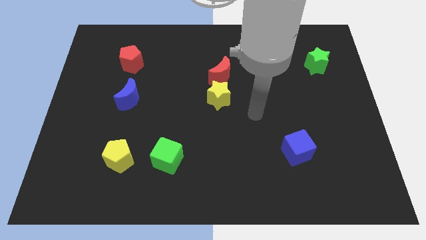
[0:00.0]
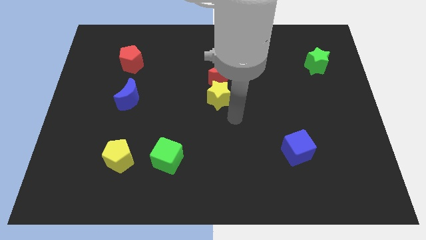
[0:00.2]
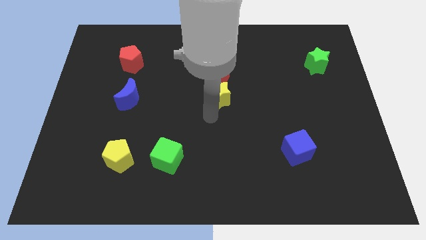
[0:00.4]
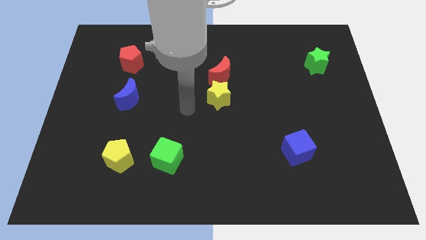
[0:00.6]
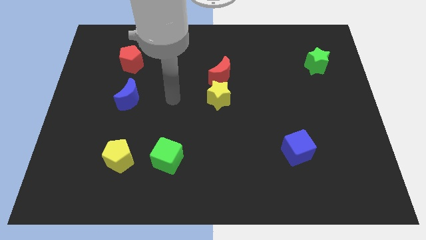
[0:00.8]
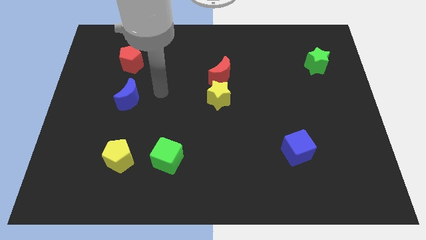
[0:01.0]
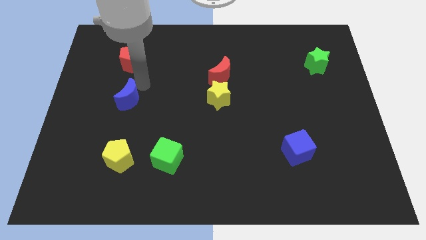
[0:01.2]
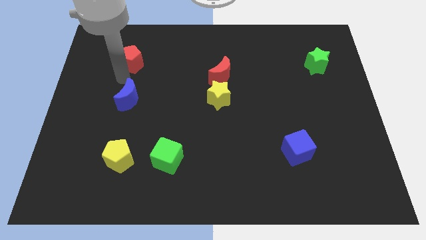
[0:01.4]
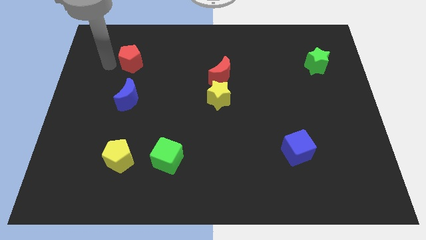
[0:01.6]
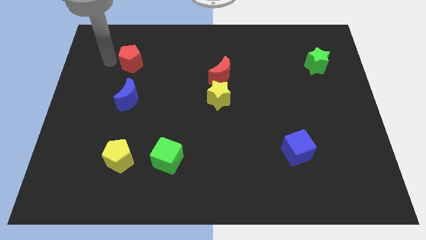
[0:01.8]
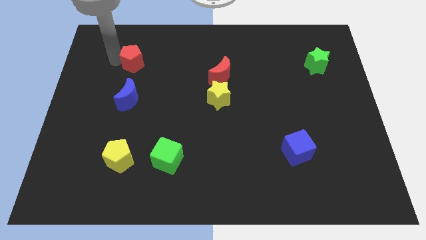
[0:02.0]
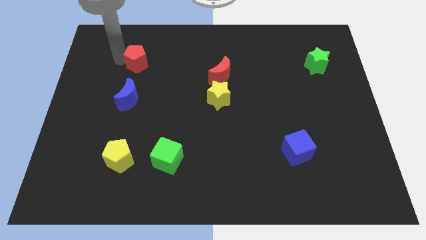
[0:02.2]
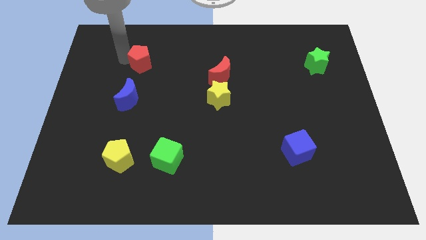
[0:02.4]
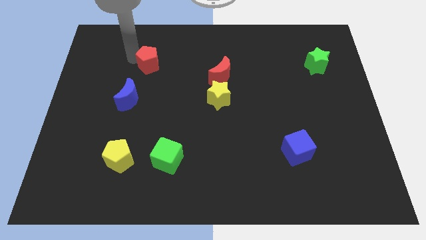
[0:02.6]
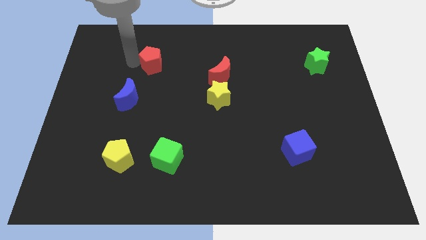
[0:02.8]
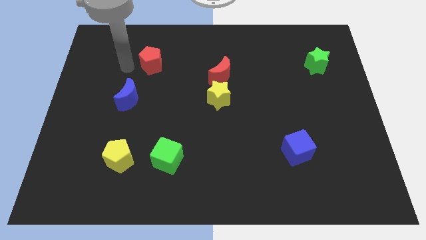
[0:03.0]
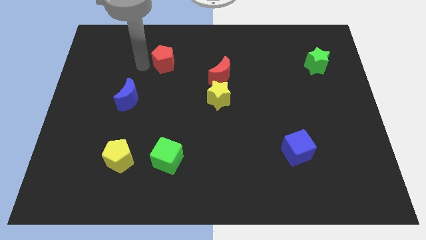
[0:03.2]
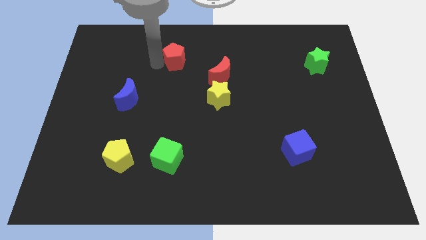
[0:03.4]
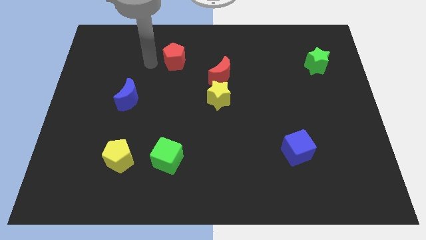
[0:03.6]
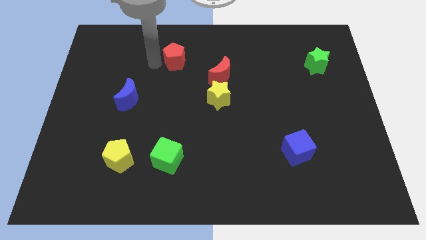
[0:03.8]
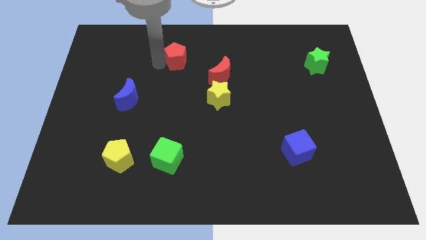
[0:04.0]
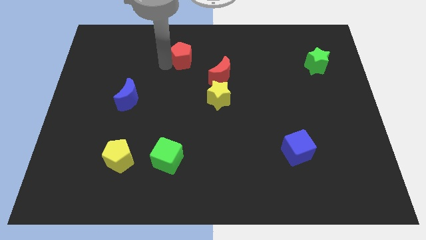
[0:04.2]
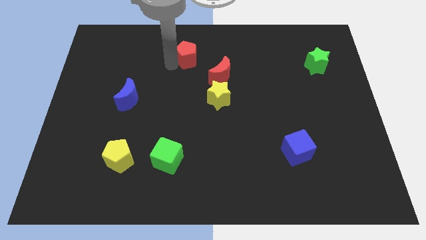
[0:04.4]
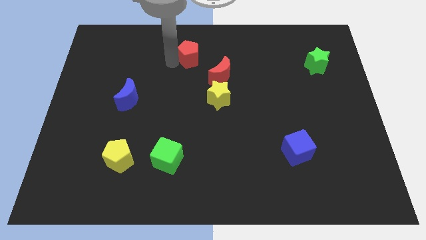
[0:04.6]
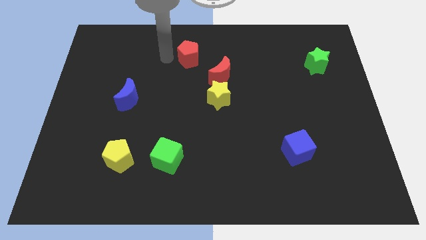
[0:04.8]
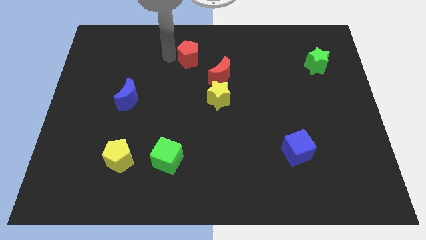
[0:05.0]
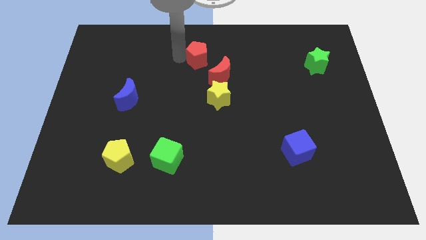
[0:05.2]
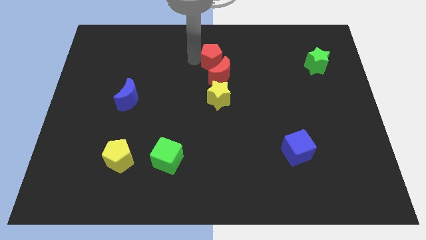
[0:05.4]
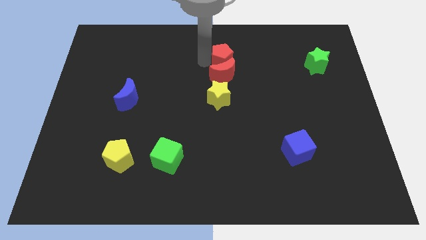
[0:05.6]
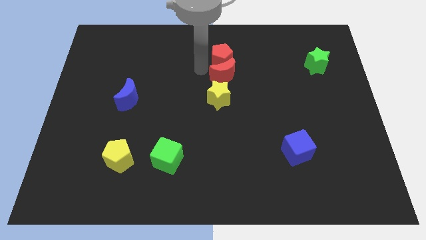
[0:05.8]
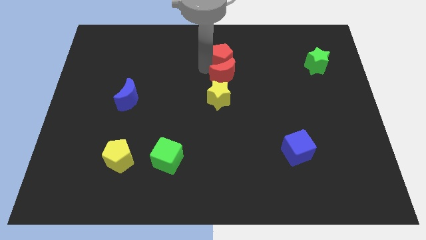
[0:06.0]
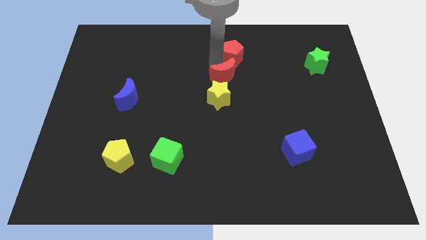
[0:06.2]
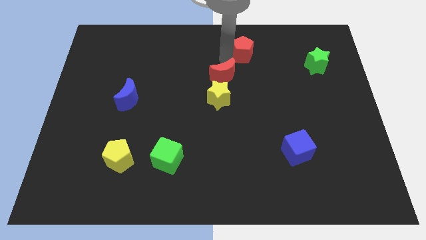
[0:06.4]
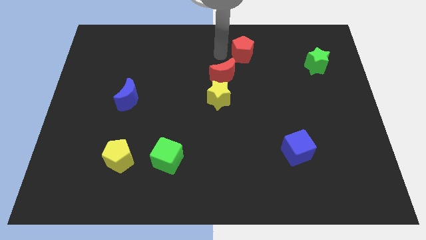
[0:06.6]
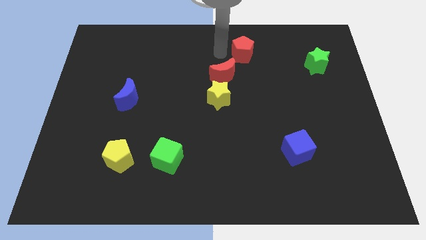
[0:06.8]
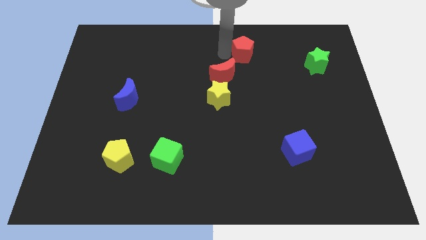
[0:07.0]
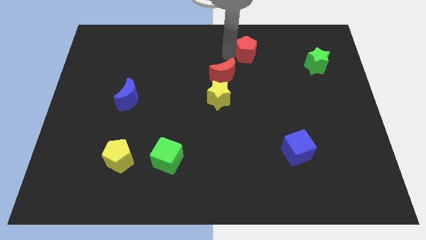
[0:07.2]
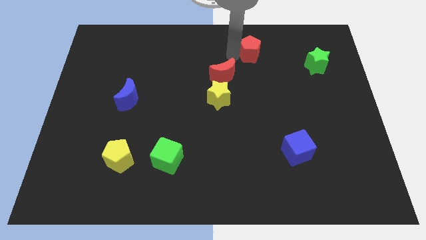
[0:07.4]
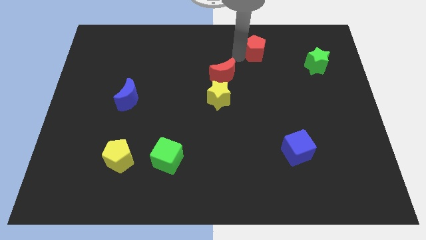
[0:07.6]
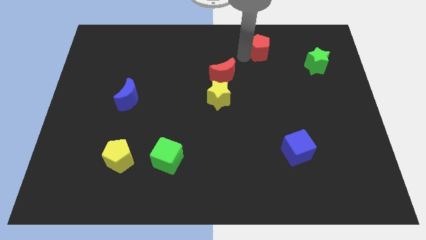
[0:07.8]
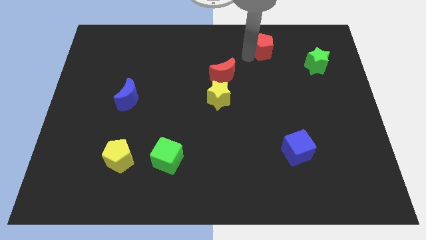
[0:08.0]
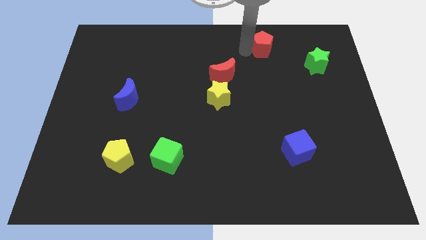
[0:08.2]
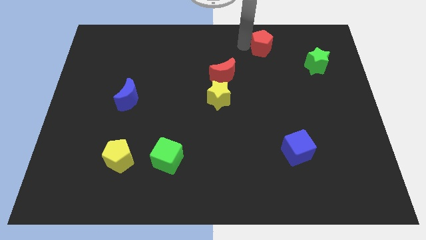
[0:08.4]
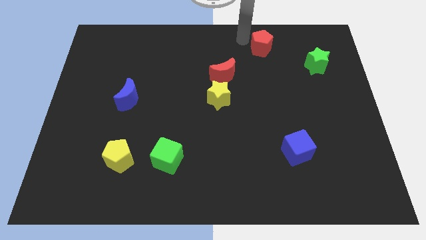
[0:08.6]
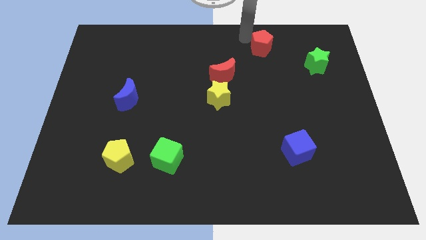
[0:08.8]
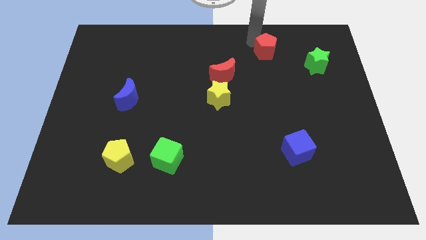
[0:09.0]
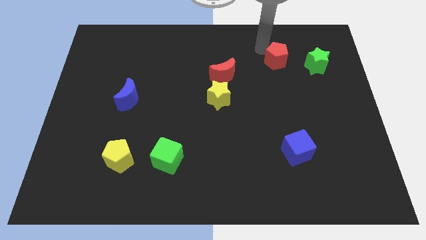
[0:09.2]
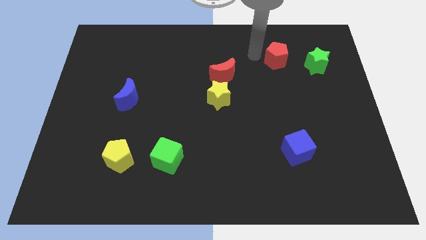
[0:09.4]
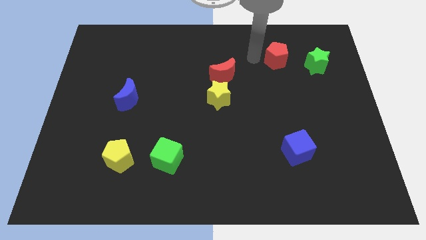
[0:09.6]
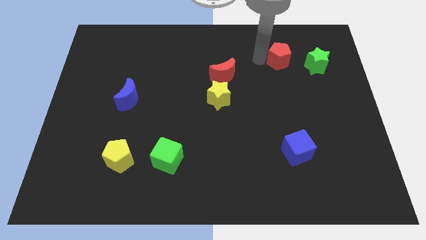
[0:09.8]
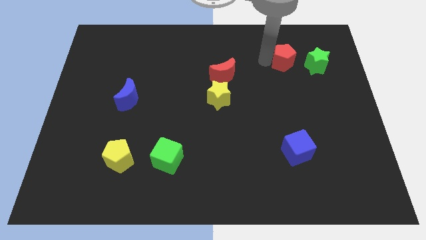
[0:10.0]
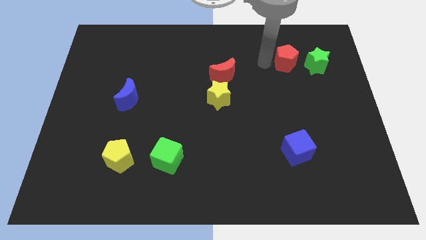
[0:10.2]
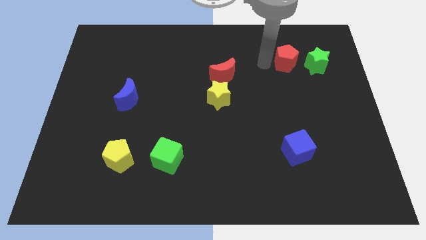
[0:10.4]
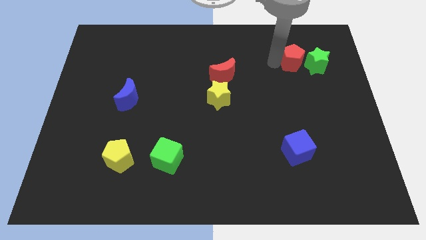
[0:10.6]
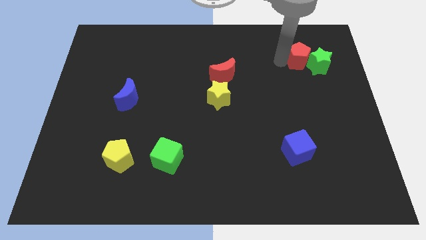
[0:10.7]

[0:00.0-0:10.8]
push the red pentagon towards the green star

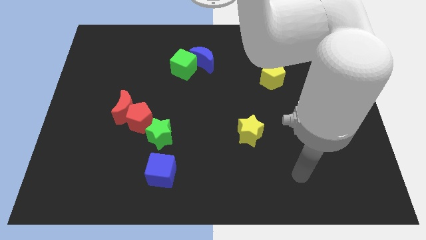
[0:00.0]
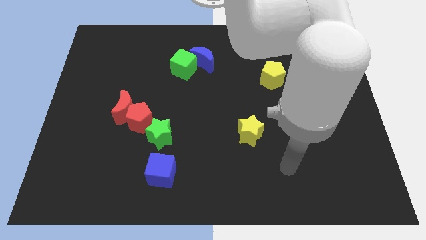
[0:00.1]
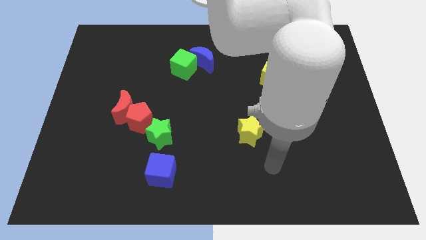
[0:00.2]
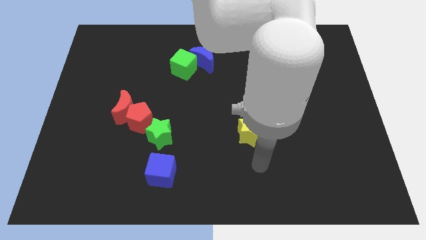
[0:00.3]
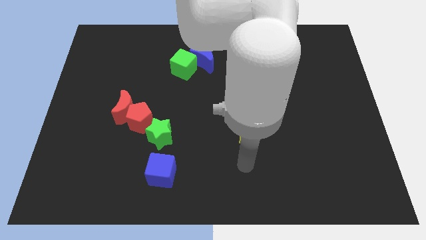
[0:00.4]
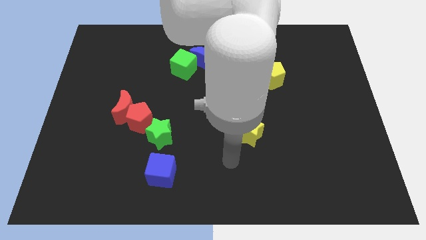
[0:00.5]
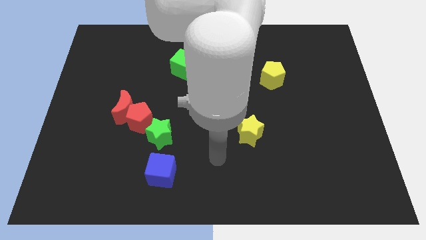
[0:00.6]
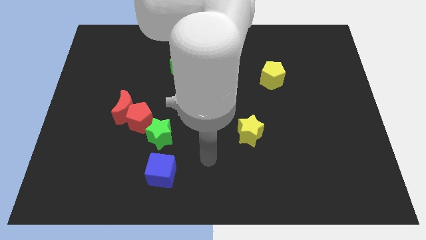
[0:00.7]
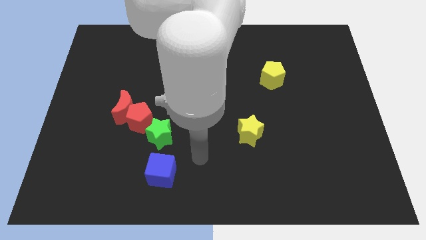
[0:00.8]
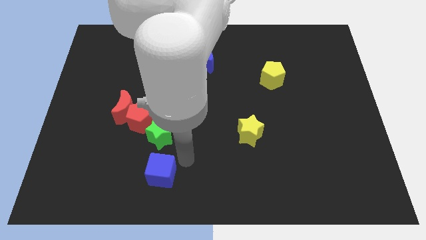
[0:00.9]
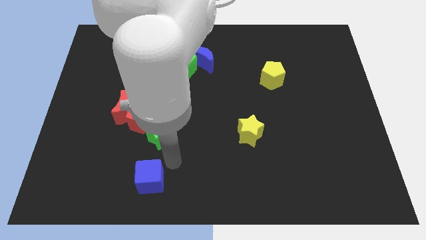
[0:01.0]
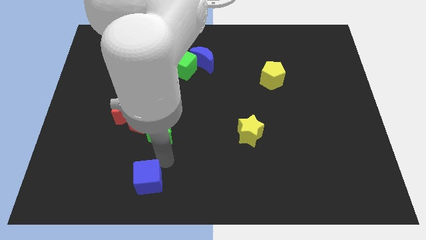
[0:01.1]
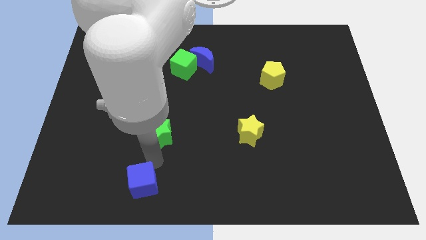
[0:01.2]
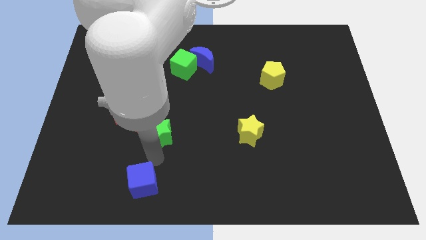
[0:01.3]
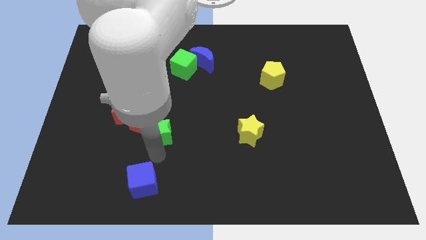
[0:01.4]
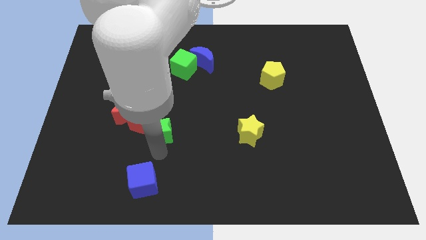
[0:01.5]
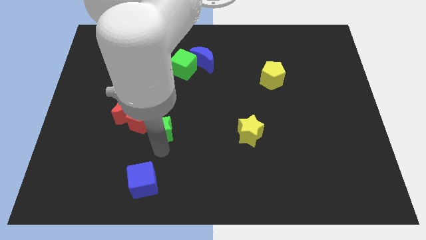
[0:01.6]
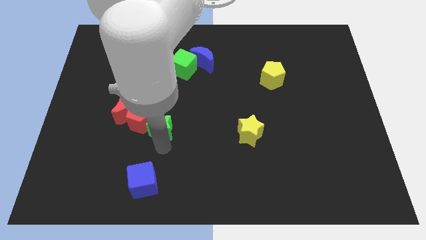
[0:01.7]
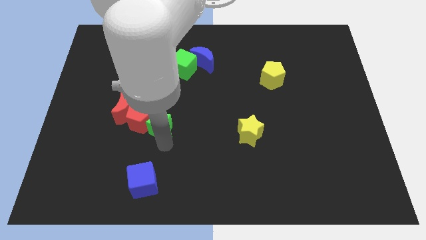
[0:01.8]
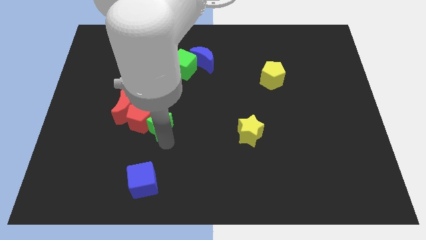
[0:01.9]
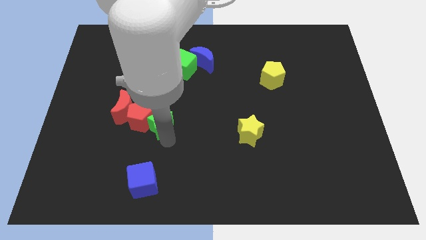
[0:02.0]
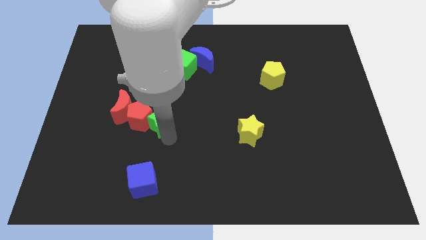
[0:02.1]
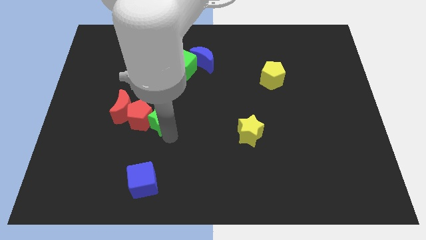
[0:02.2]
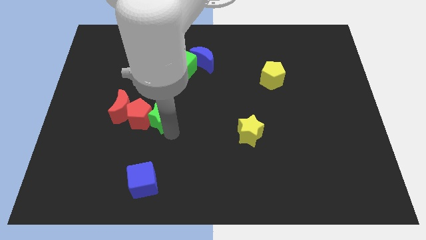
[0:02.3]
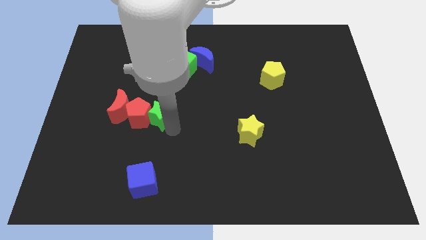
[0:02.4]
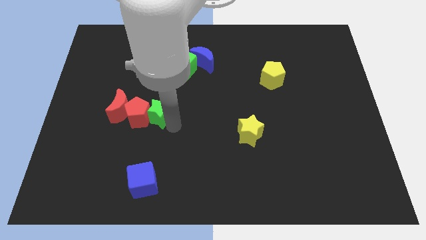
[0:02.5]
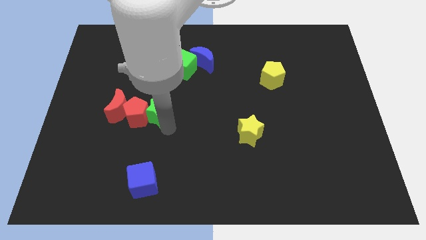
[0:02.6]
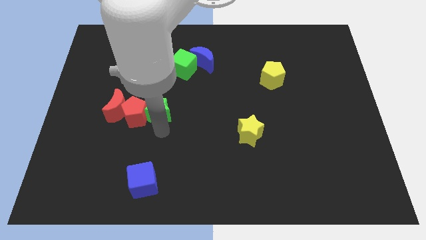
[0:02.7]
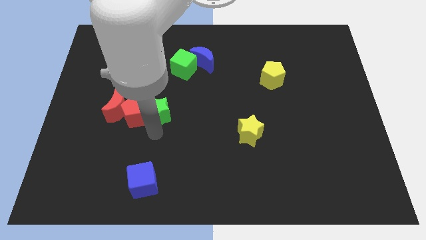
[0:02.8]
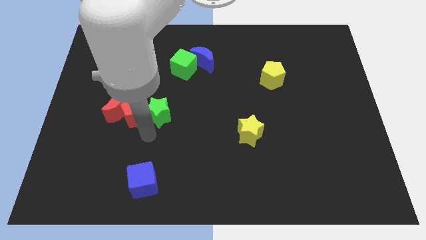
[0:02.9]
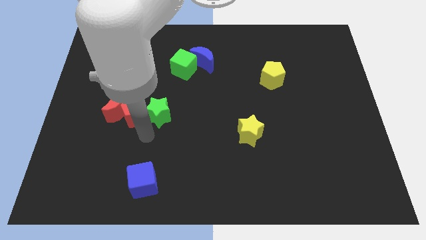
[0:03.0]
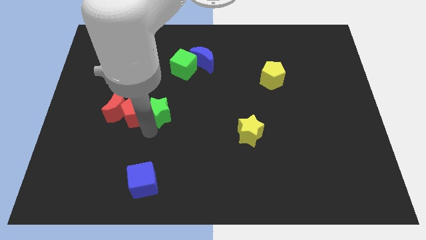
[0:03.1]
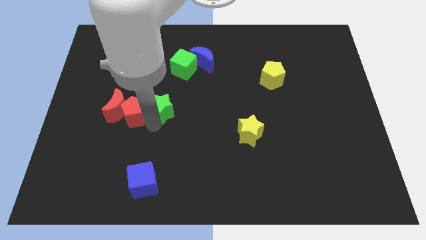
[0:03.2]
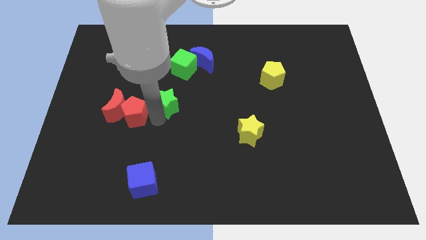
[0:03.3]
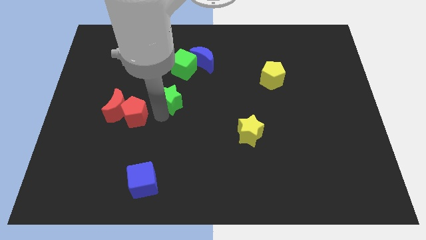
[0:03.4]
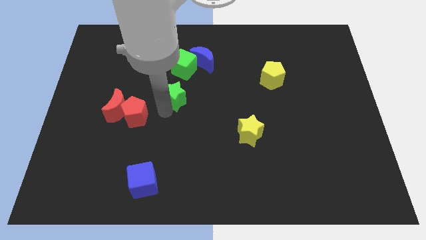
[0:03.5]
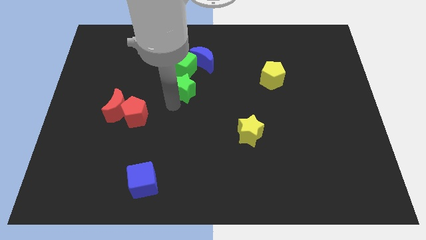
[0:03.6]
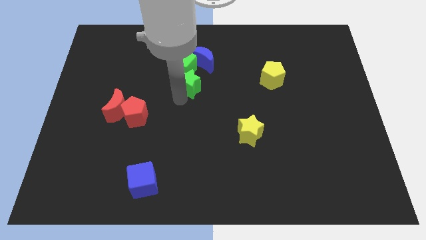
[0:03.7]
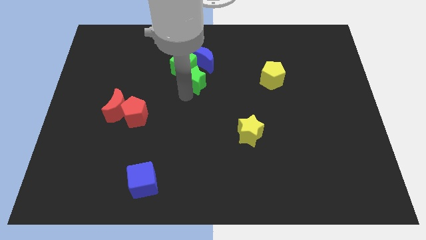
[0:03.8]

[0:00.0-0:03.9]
put the green star to the green cube
